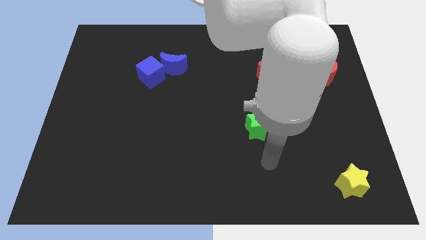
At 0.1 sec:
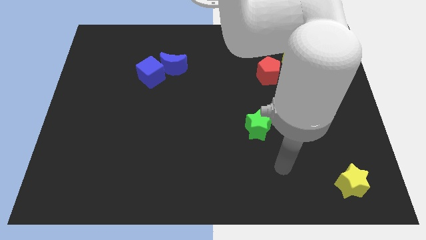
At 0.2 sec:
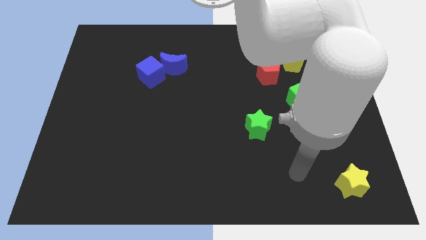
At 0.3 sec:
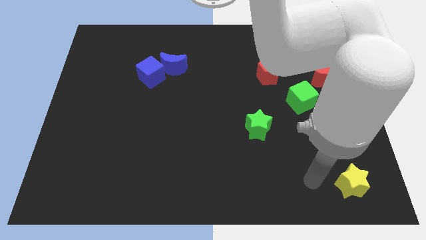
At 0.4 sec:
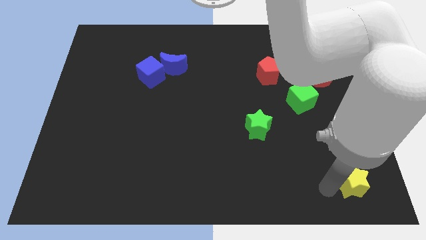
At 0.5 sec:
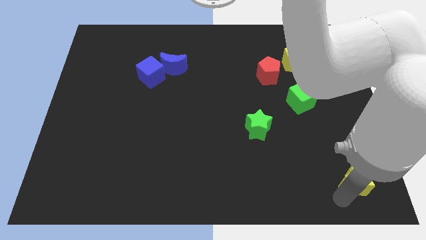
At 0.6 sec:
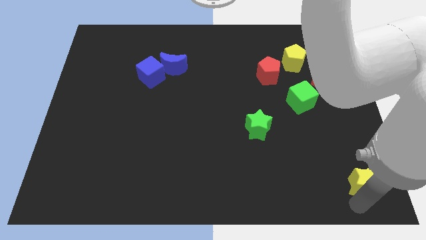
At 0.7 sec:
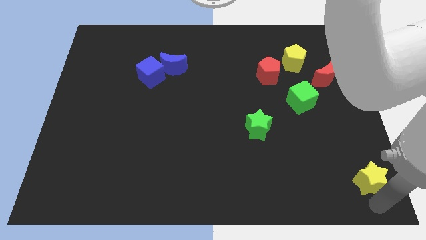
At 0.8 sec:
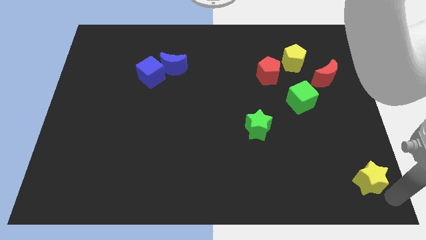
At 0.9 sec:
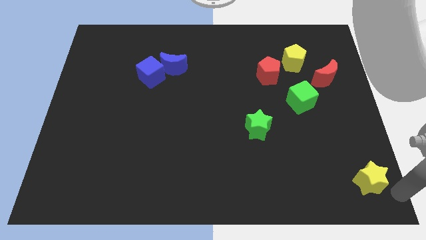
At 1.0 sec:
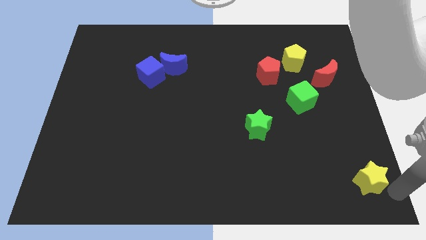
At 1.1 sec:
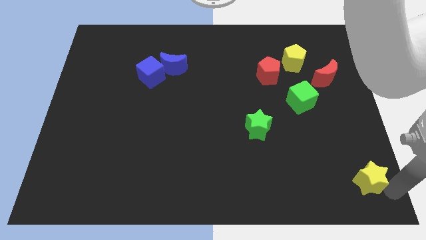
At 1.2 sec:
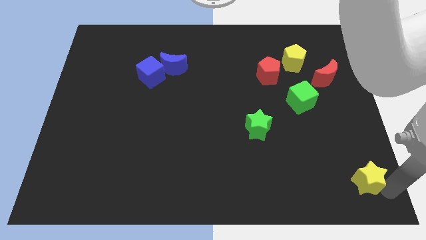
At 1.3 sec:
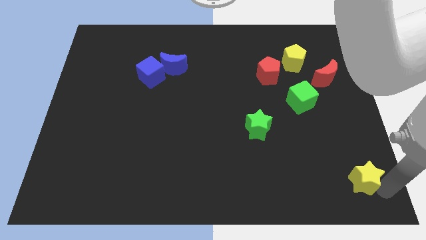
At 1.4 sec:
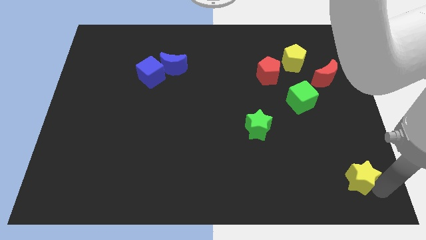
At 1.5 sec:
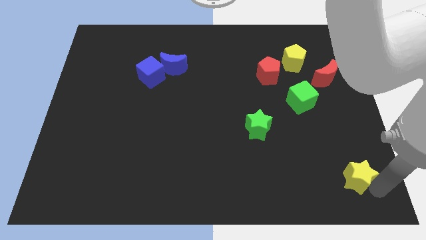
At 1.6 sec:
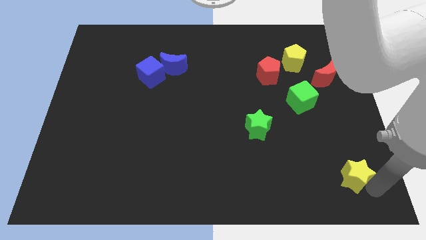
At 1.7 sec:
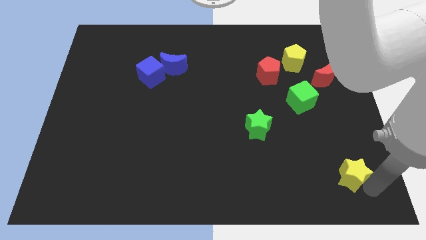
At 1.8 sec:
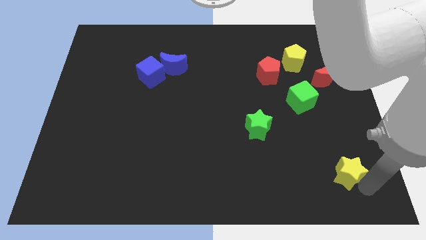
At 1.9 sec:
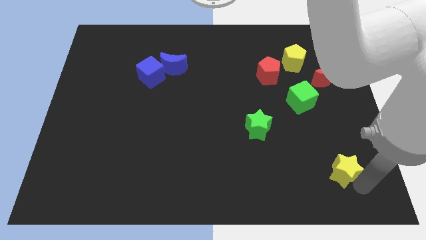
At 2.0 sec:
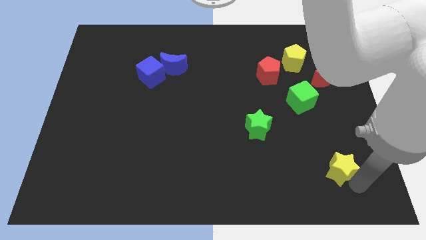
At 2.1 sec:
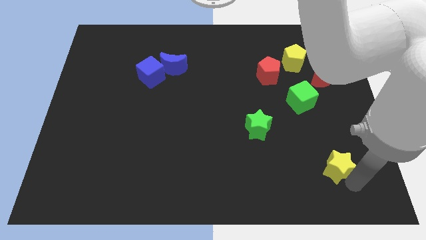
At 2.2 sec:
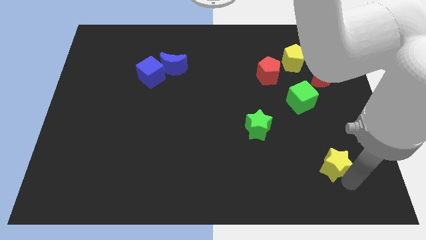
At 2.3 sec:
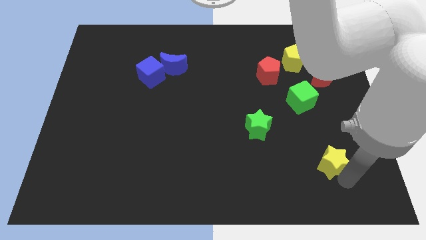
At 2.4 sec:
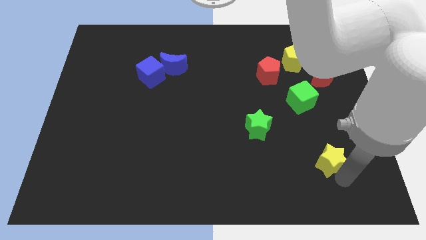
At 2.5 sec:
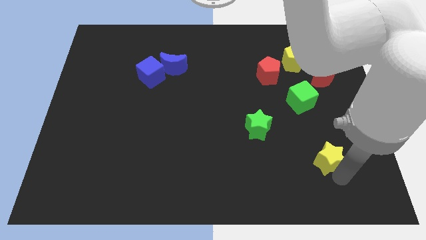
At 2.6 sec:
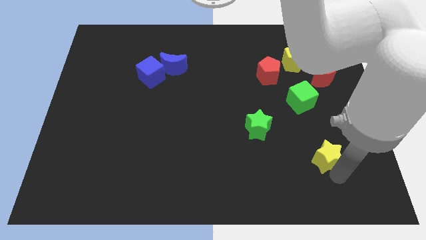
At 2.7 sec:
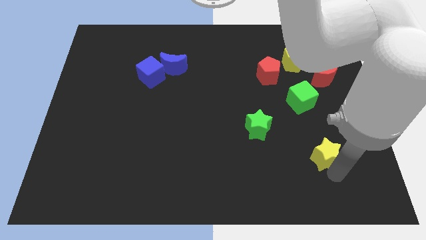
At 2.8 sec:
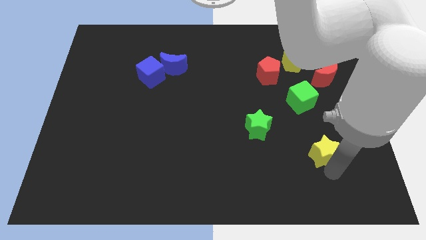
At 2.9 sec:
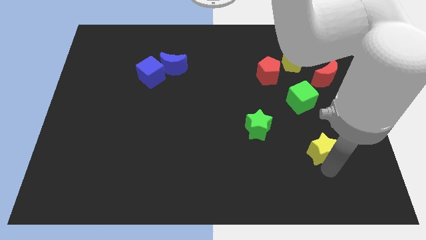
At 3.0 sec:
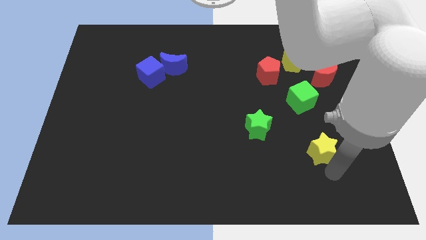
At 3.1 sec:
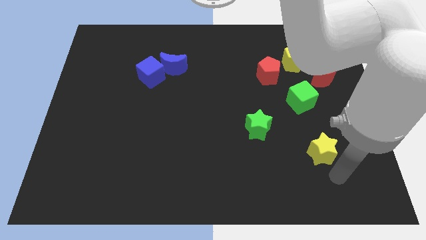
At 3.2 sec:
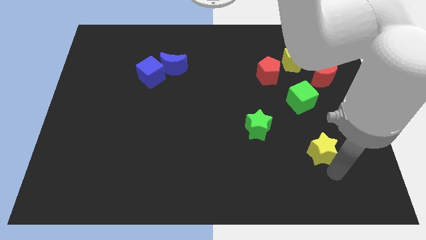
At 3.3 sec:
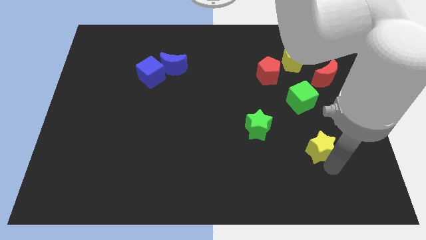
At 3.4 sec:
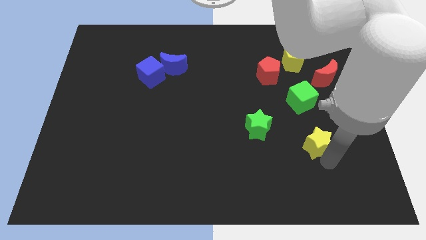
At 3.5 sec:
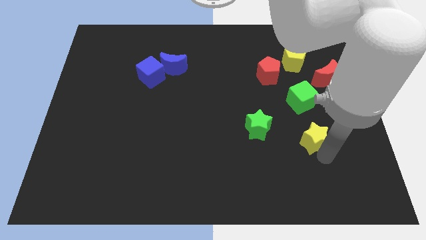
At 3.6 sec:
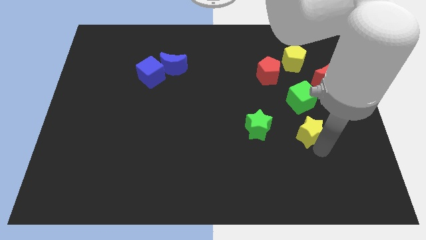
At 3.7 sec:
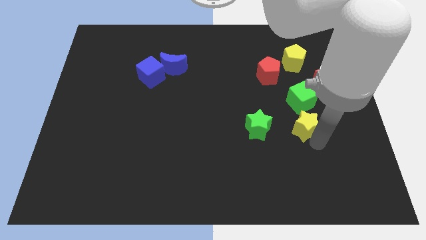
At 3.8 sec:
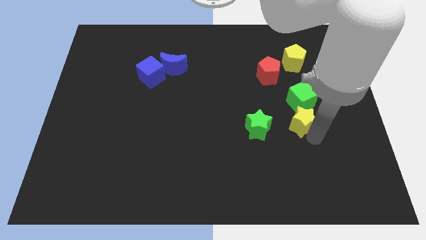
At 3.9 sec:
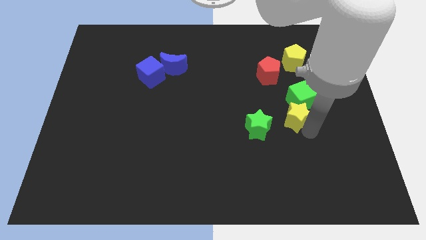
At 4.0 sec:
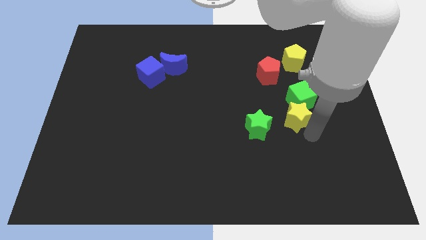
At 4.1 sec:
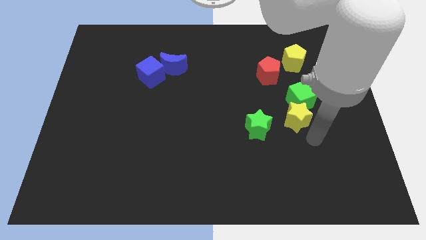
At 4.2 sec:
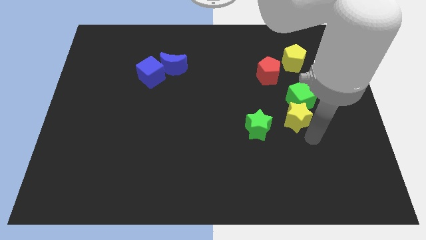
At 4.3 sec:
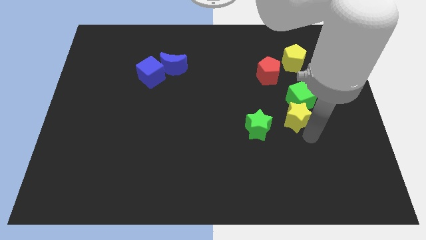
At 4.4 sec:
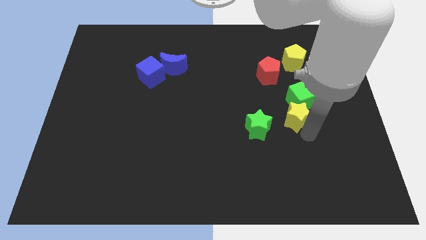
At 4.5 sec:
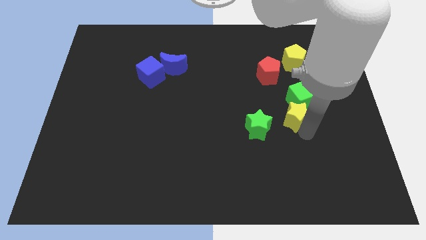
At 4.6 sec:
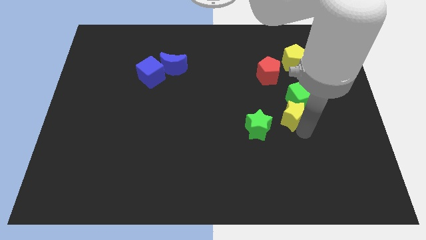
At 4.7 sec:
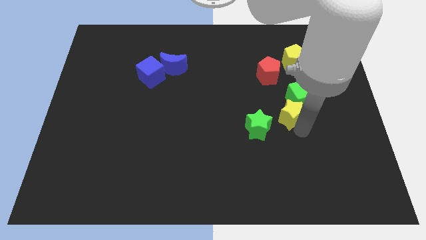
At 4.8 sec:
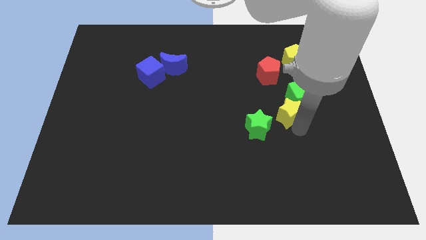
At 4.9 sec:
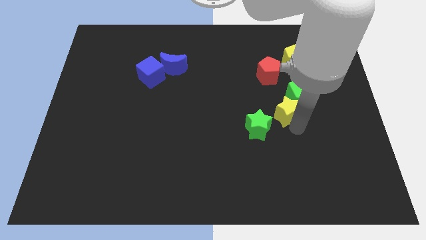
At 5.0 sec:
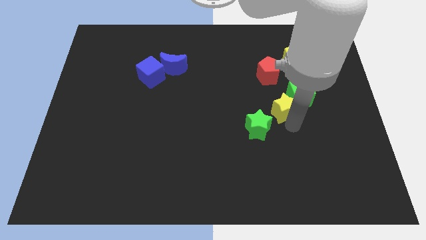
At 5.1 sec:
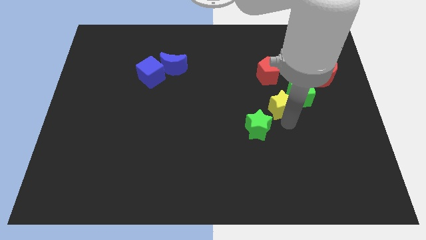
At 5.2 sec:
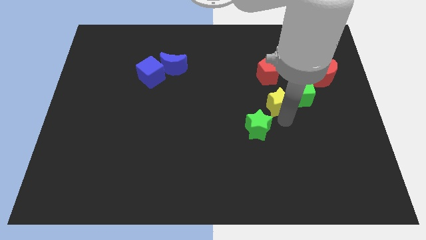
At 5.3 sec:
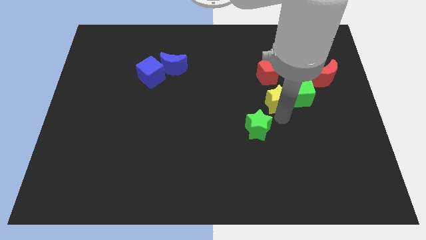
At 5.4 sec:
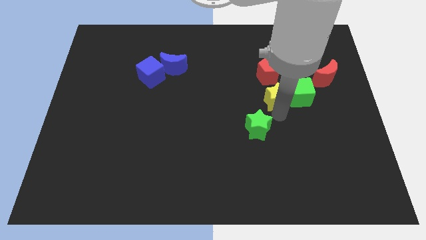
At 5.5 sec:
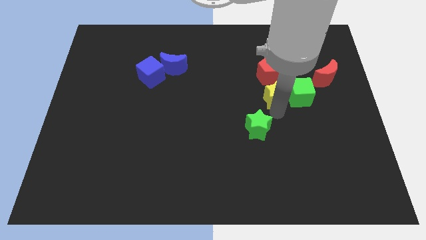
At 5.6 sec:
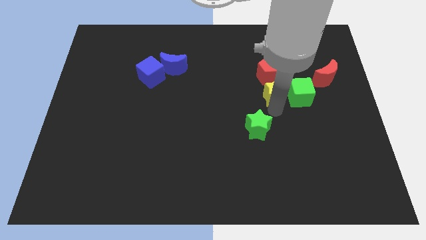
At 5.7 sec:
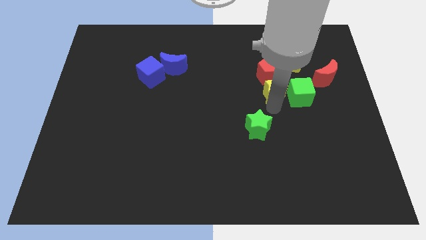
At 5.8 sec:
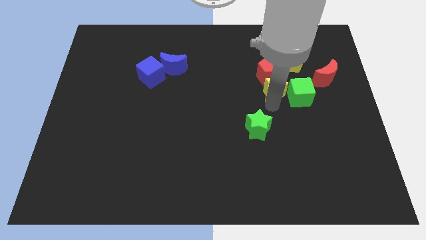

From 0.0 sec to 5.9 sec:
slide the yellow star left of the red moon

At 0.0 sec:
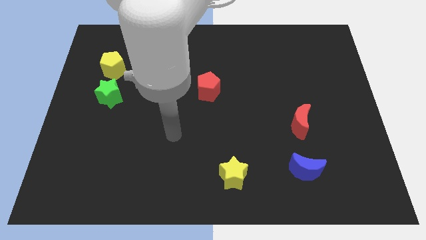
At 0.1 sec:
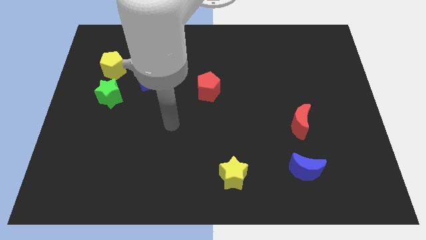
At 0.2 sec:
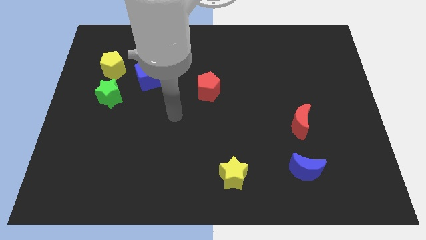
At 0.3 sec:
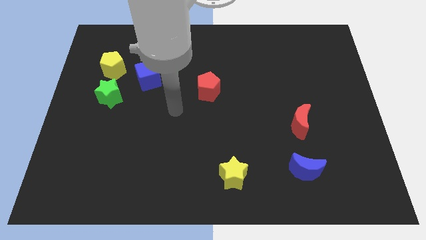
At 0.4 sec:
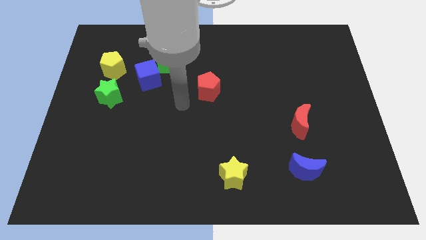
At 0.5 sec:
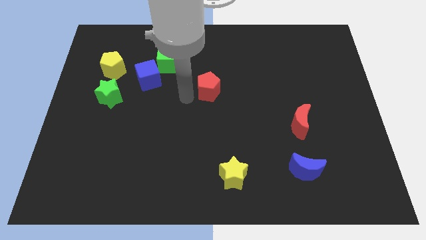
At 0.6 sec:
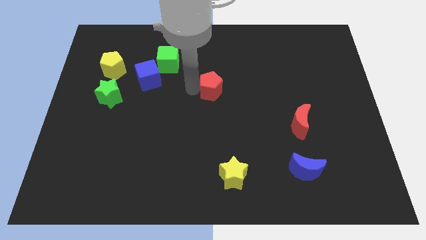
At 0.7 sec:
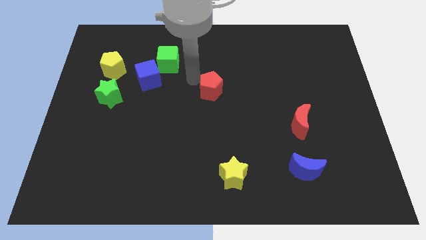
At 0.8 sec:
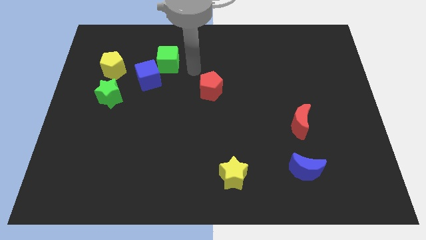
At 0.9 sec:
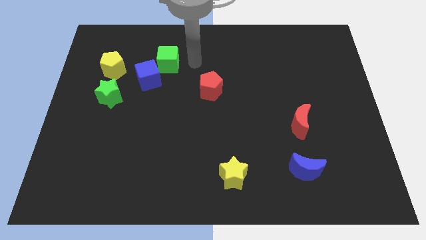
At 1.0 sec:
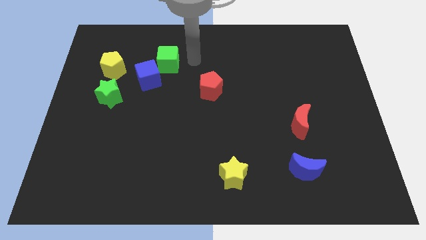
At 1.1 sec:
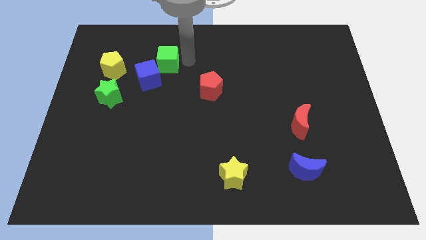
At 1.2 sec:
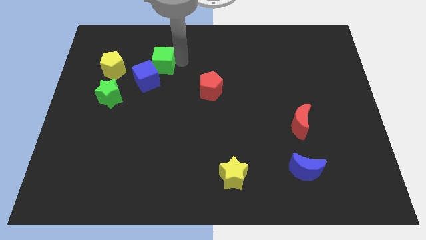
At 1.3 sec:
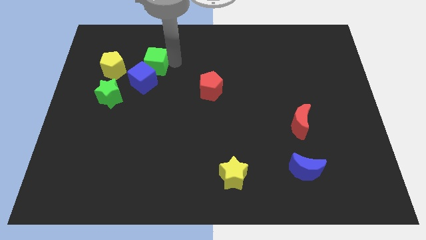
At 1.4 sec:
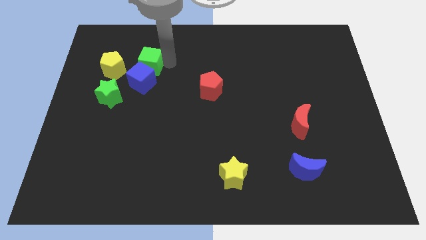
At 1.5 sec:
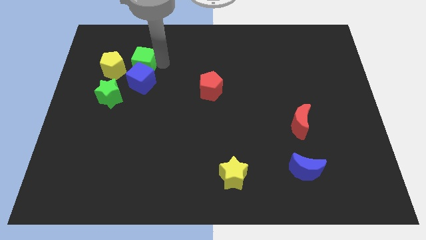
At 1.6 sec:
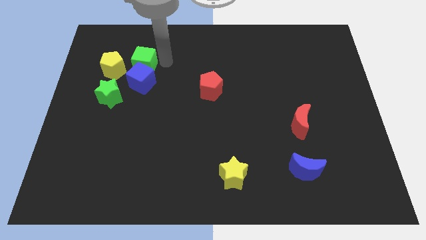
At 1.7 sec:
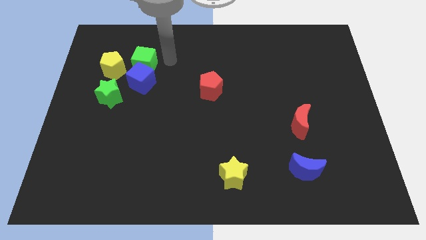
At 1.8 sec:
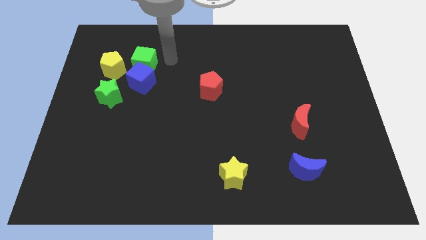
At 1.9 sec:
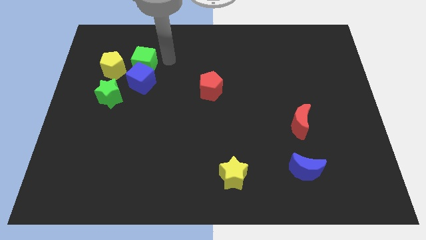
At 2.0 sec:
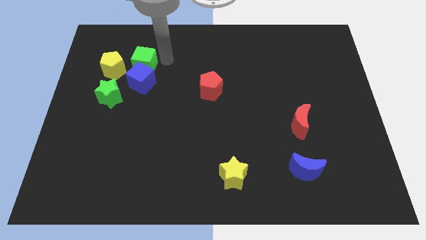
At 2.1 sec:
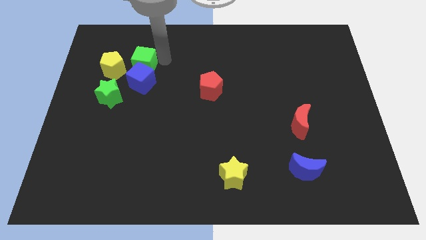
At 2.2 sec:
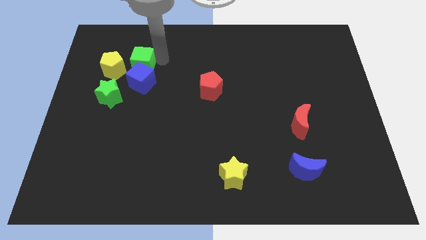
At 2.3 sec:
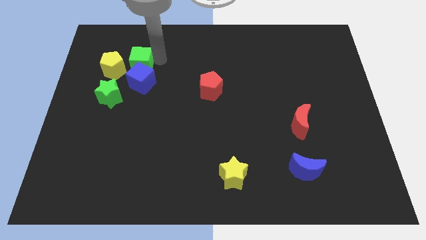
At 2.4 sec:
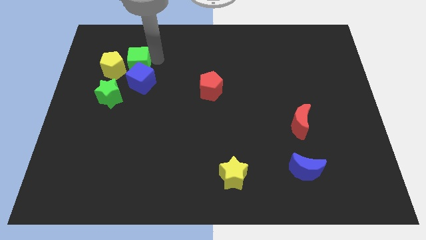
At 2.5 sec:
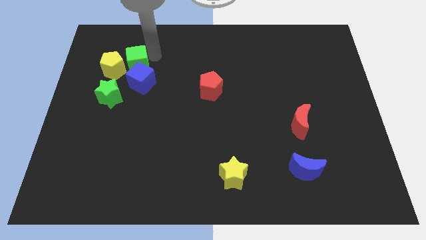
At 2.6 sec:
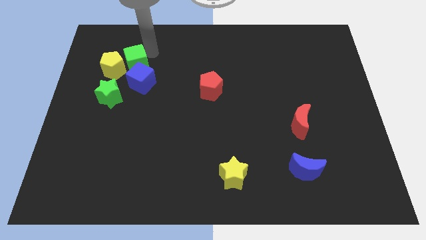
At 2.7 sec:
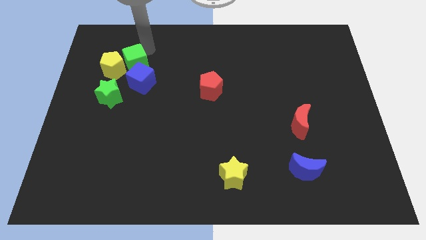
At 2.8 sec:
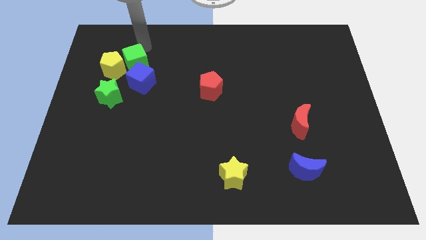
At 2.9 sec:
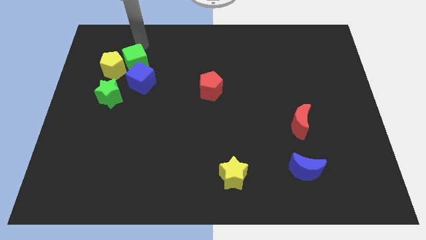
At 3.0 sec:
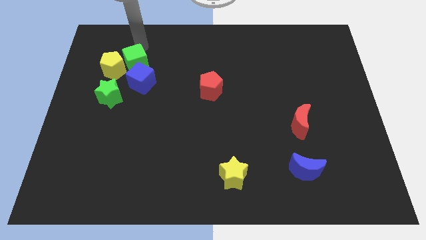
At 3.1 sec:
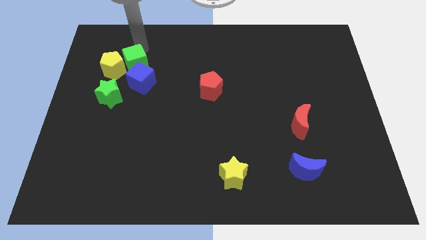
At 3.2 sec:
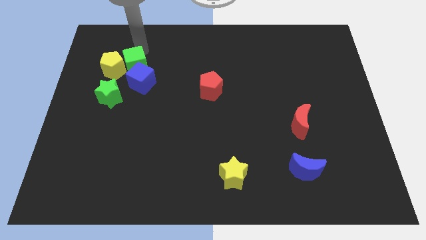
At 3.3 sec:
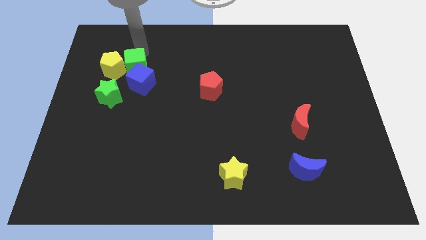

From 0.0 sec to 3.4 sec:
push the green cube diagonally down and to the right of the yellow pentagon
